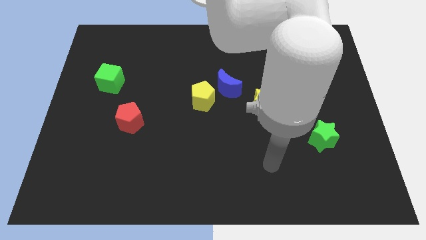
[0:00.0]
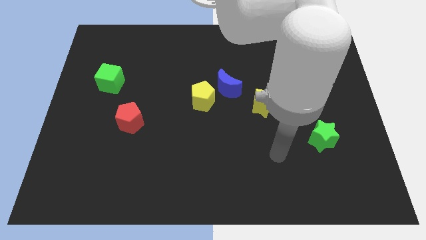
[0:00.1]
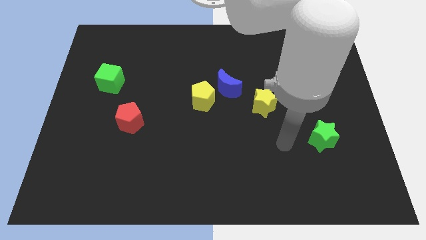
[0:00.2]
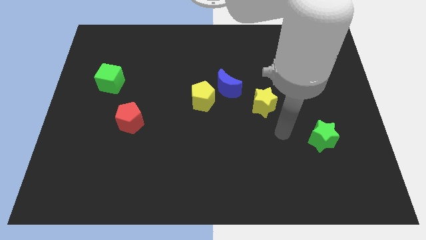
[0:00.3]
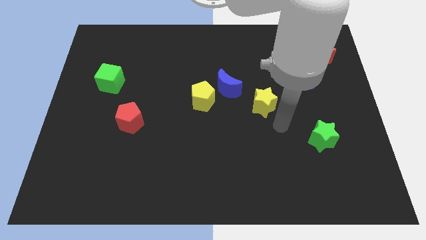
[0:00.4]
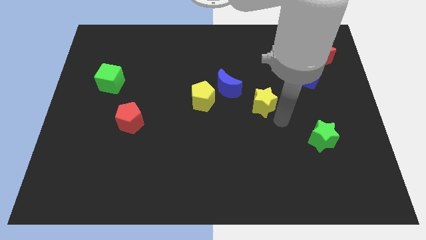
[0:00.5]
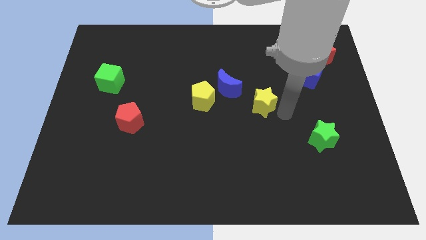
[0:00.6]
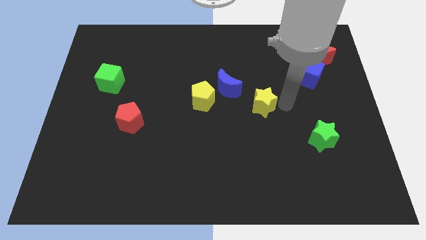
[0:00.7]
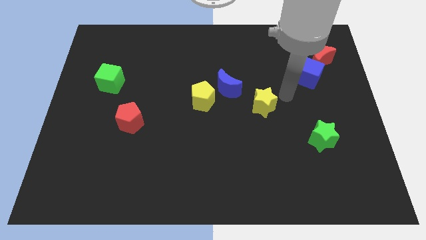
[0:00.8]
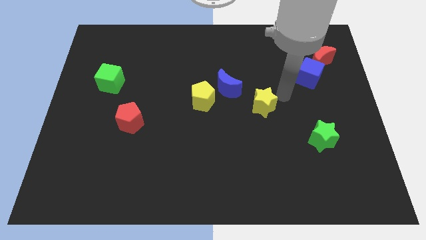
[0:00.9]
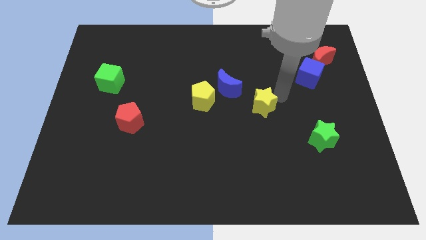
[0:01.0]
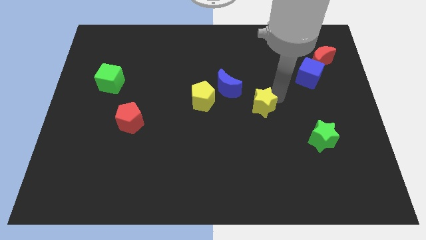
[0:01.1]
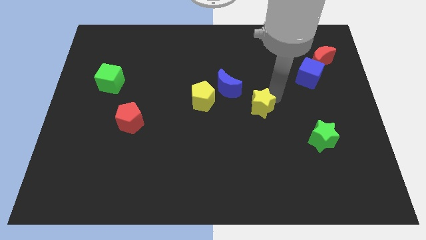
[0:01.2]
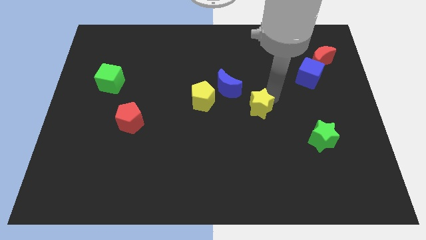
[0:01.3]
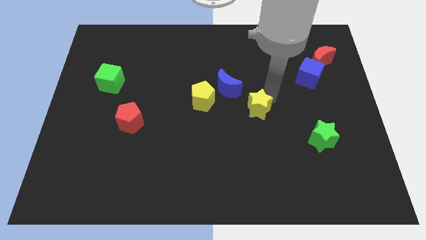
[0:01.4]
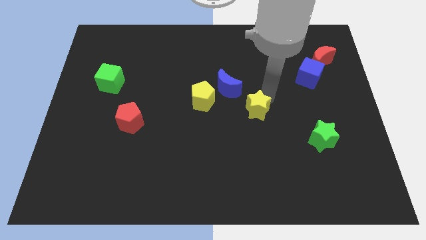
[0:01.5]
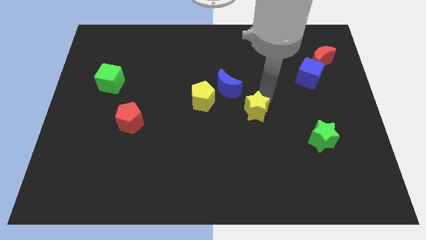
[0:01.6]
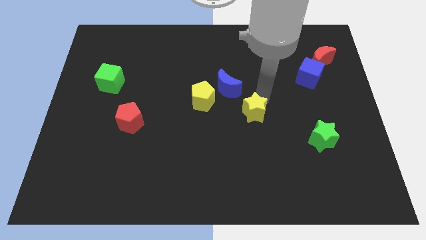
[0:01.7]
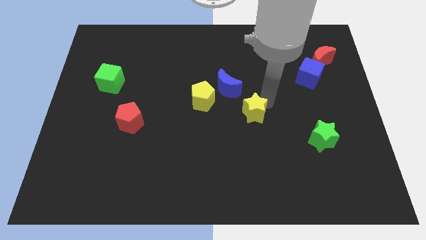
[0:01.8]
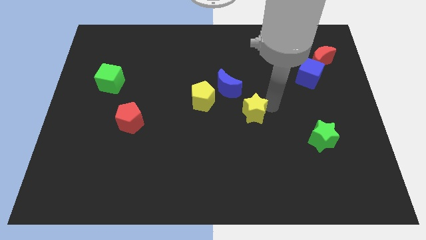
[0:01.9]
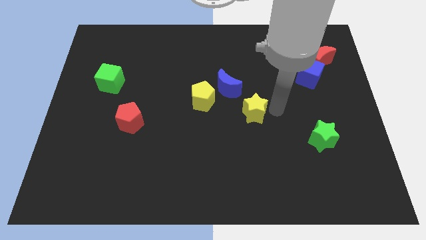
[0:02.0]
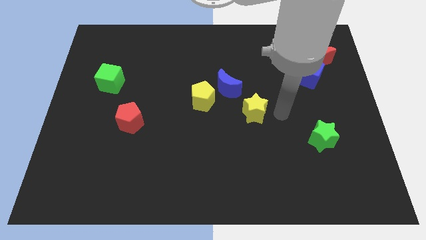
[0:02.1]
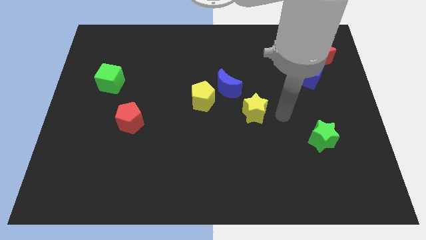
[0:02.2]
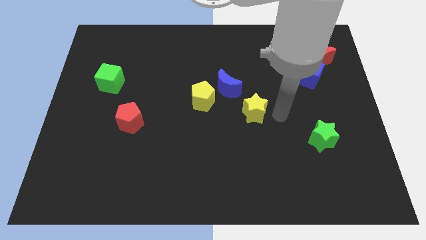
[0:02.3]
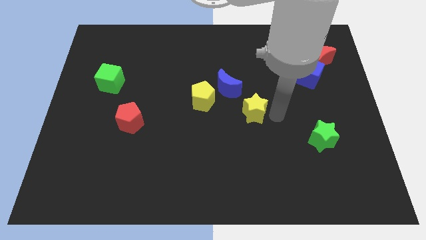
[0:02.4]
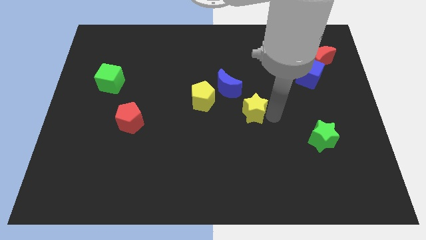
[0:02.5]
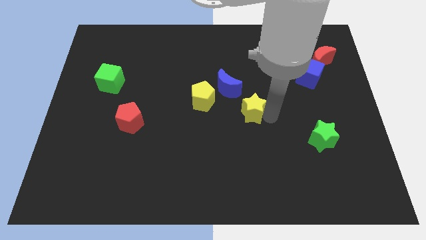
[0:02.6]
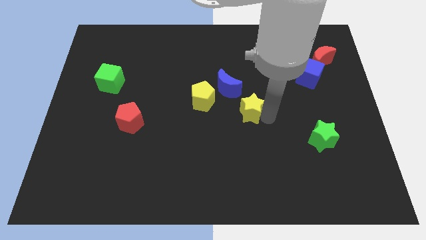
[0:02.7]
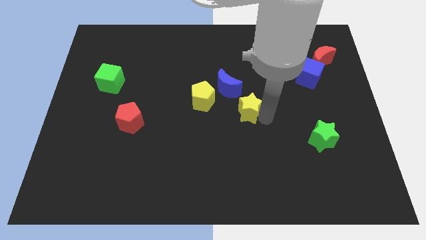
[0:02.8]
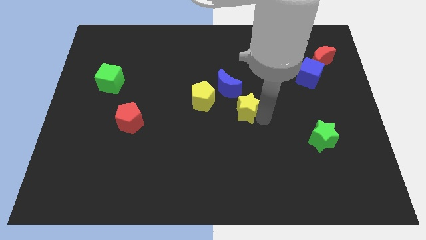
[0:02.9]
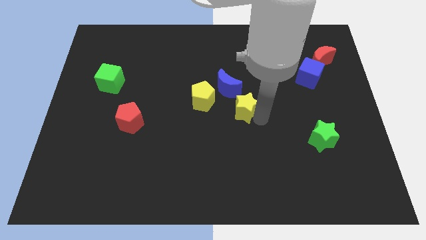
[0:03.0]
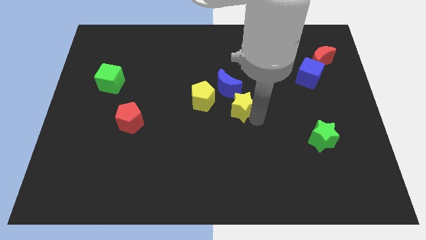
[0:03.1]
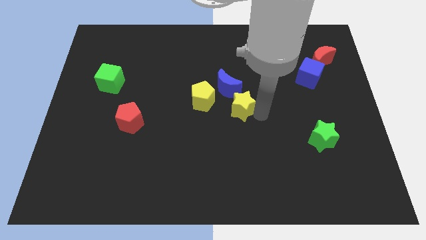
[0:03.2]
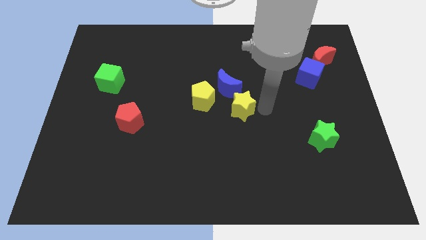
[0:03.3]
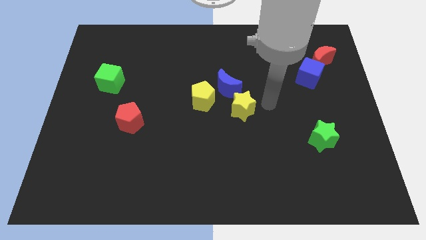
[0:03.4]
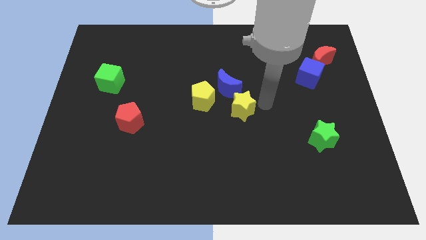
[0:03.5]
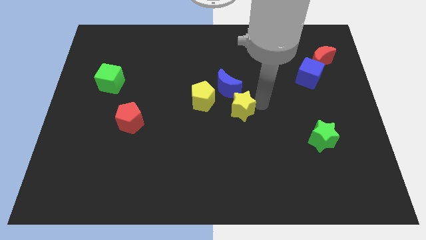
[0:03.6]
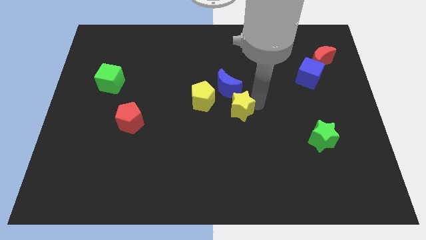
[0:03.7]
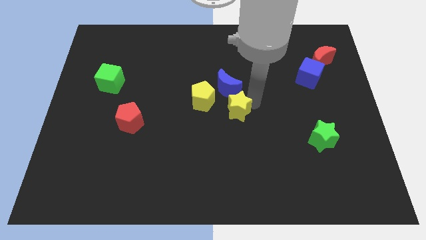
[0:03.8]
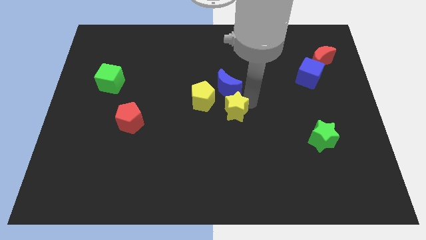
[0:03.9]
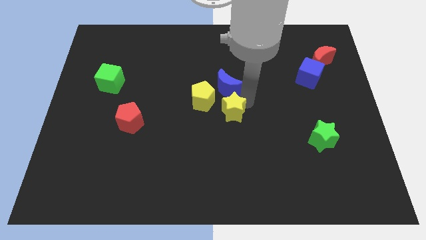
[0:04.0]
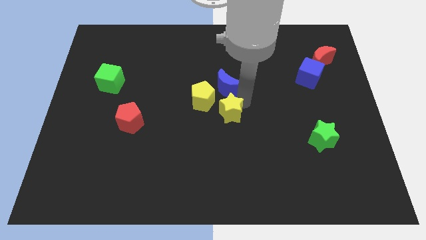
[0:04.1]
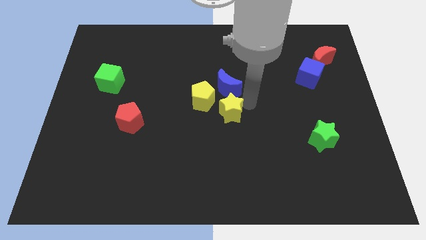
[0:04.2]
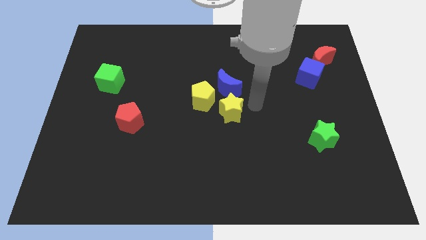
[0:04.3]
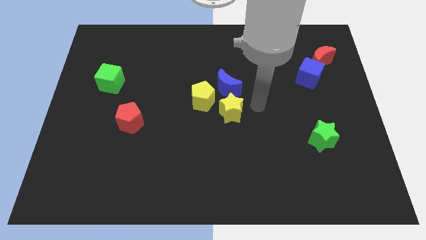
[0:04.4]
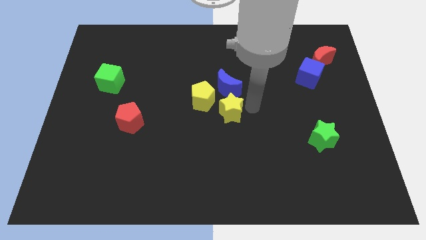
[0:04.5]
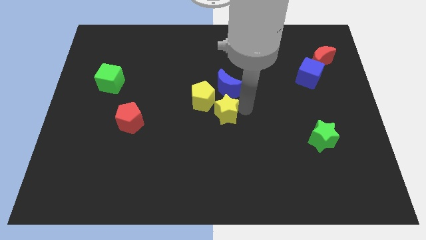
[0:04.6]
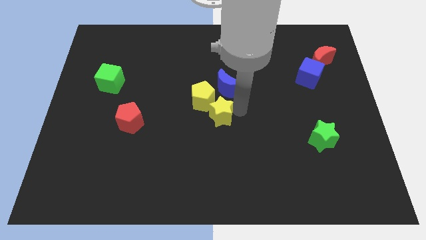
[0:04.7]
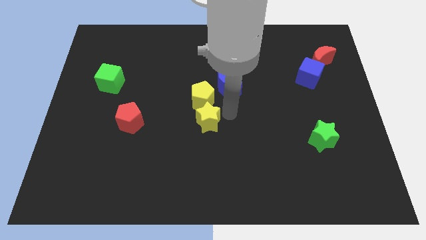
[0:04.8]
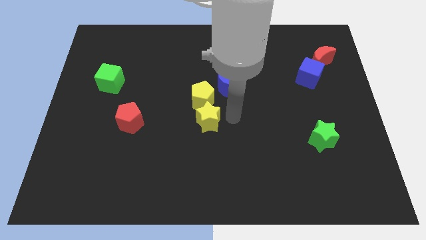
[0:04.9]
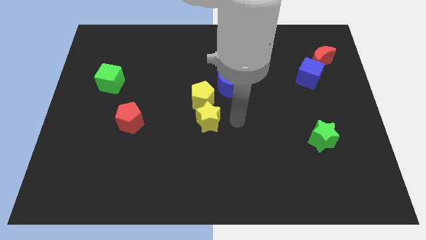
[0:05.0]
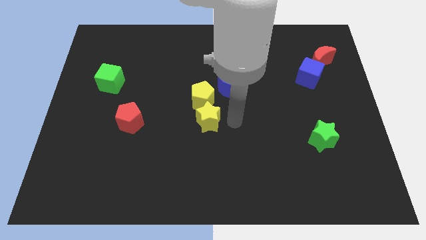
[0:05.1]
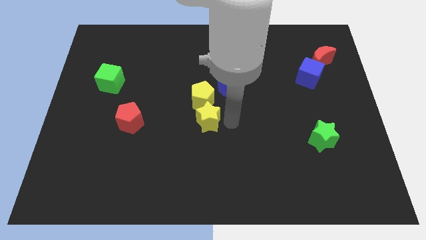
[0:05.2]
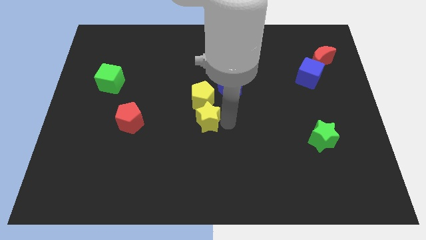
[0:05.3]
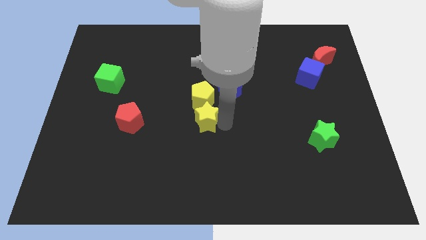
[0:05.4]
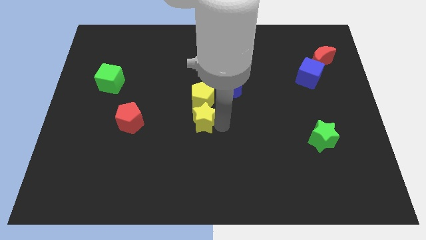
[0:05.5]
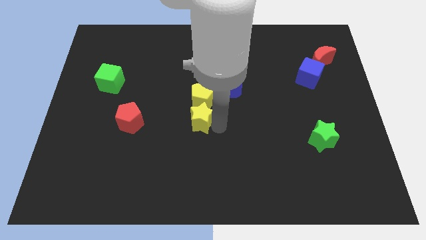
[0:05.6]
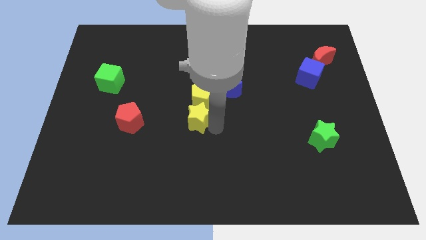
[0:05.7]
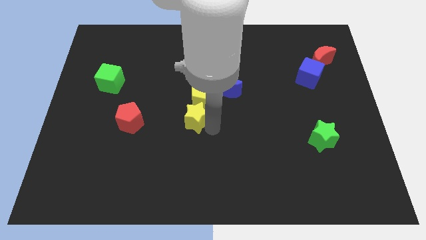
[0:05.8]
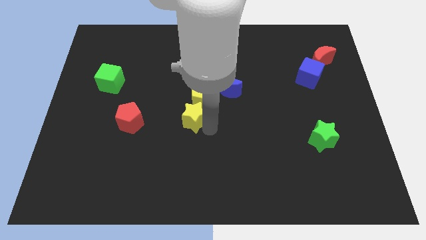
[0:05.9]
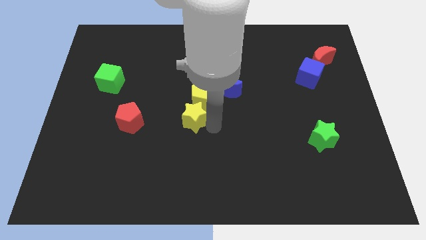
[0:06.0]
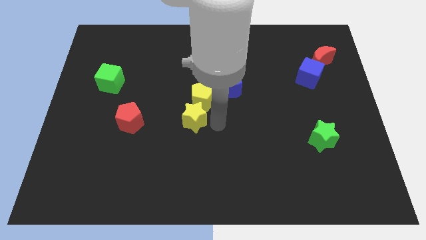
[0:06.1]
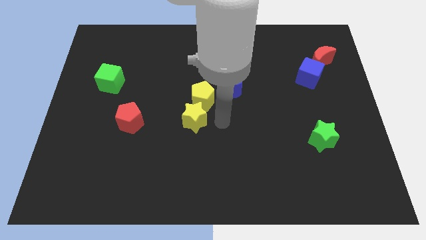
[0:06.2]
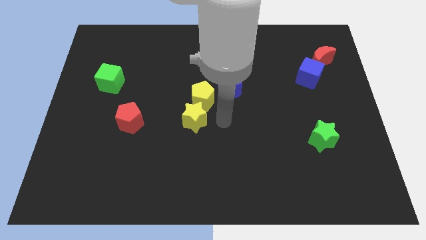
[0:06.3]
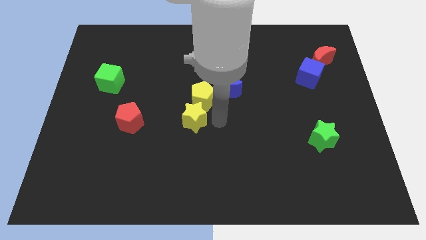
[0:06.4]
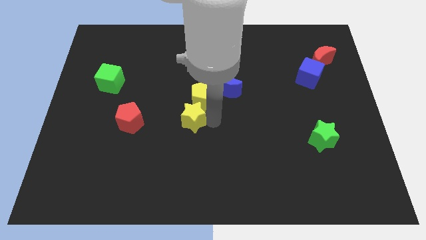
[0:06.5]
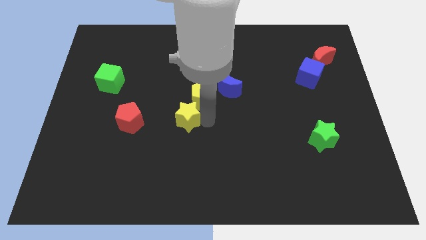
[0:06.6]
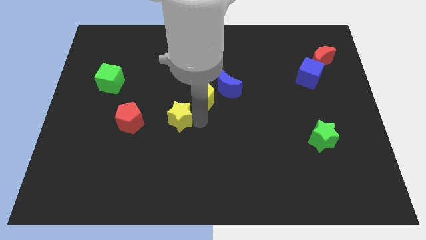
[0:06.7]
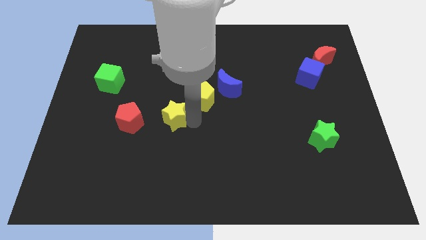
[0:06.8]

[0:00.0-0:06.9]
slide the yellow star left

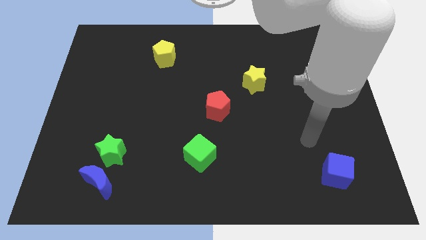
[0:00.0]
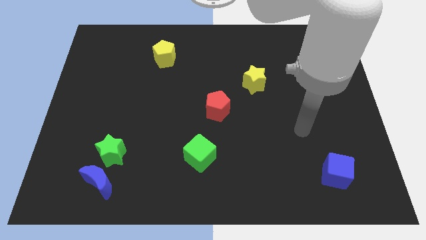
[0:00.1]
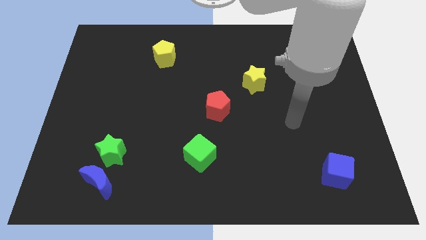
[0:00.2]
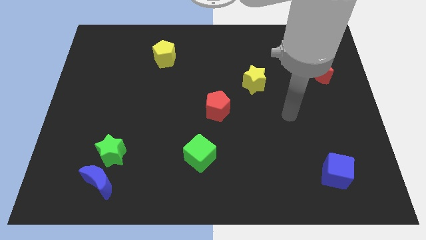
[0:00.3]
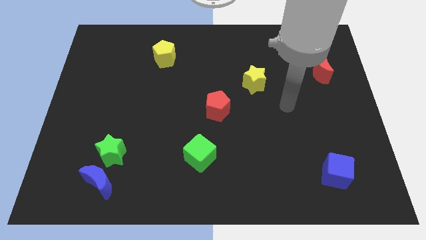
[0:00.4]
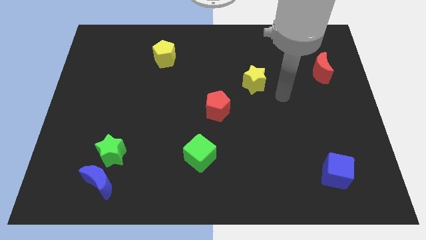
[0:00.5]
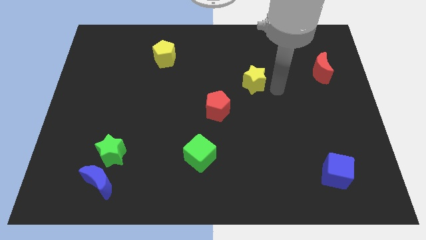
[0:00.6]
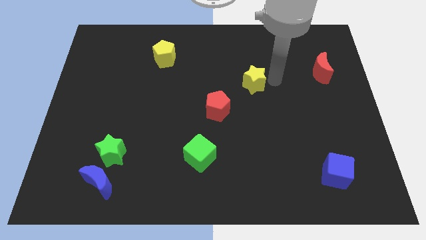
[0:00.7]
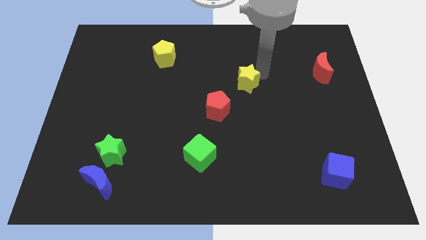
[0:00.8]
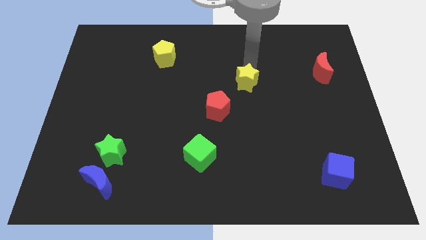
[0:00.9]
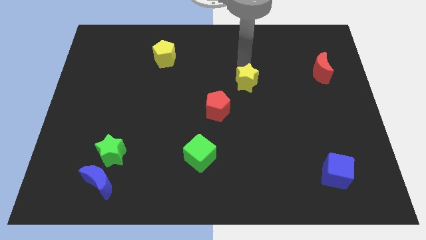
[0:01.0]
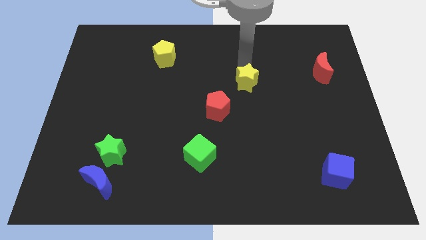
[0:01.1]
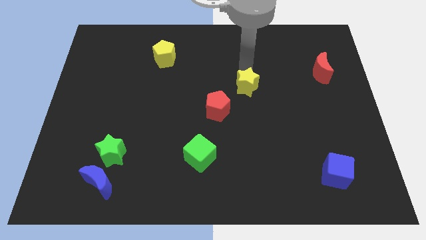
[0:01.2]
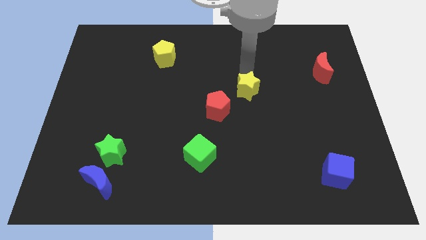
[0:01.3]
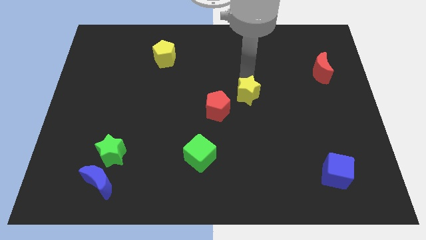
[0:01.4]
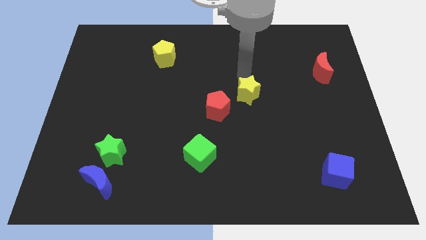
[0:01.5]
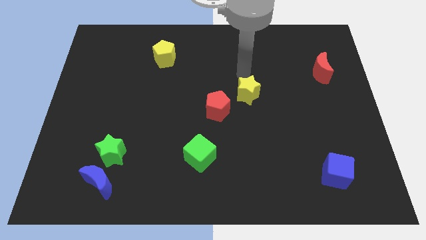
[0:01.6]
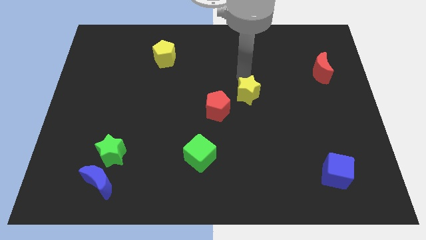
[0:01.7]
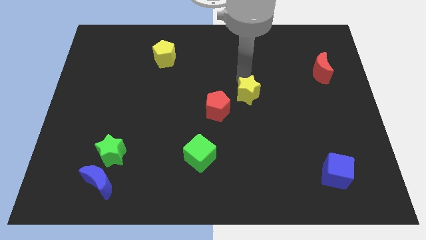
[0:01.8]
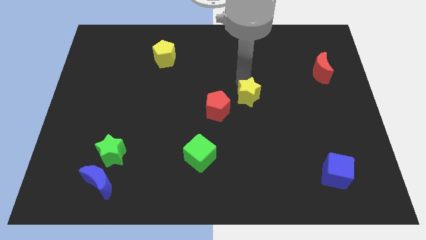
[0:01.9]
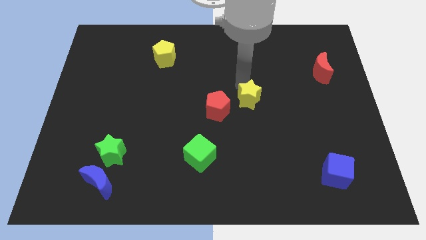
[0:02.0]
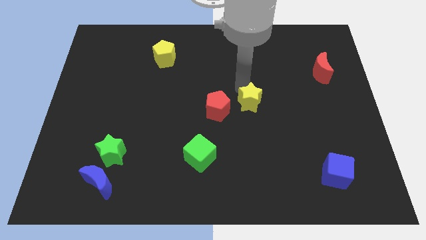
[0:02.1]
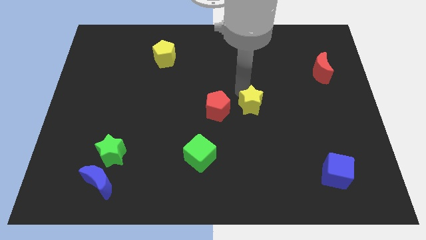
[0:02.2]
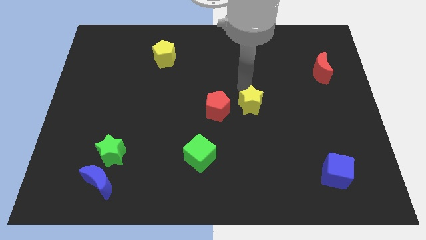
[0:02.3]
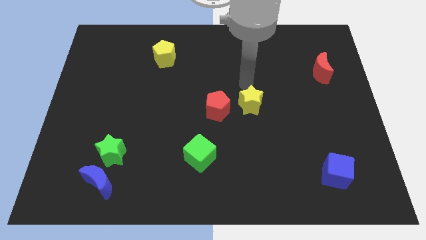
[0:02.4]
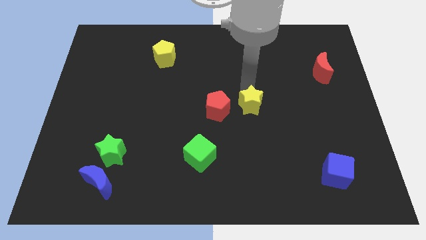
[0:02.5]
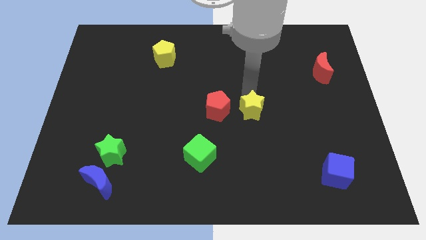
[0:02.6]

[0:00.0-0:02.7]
slightly move the yellow star downwards
